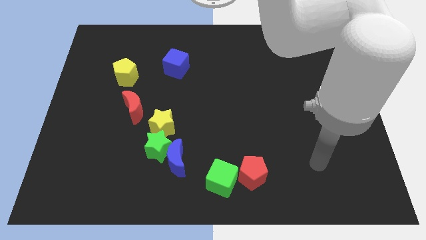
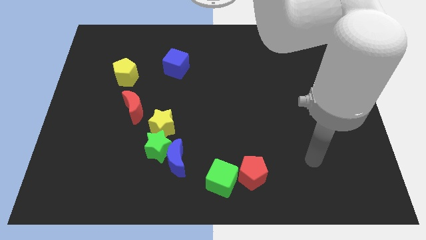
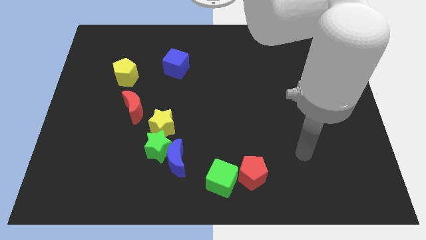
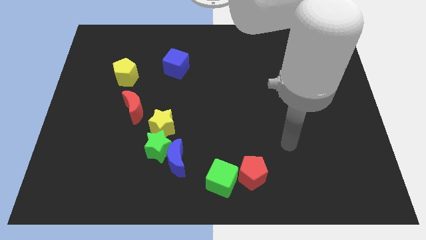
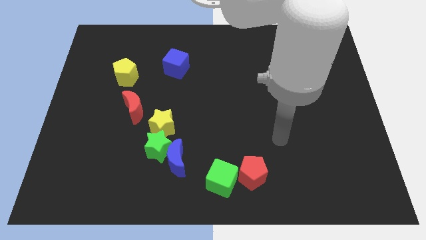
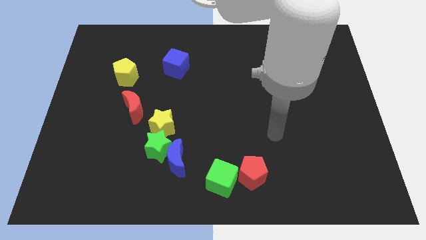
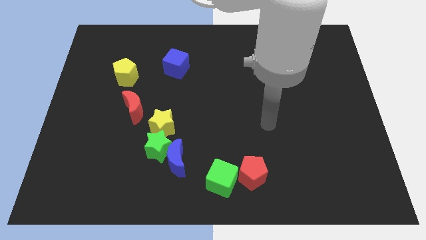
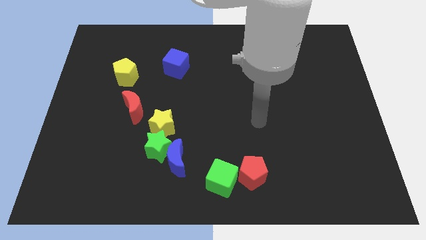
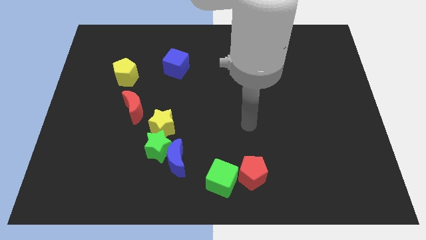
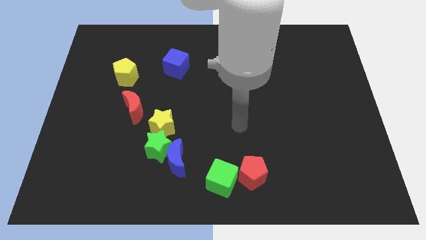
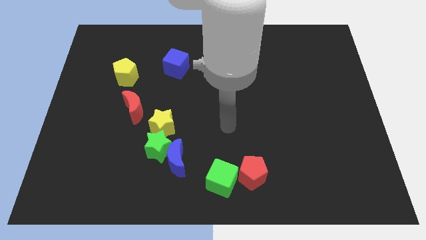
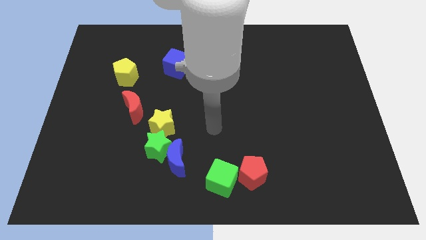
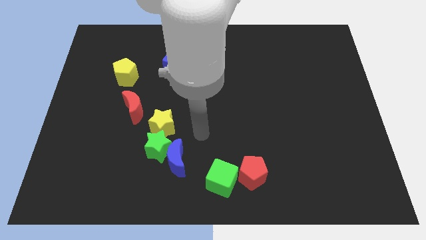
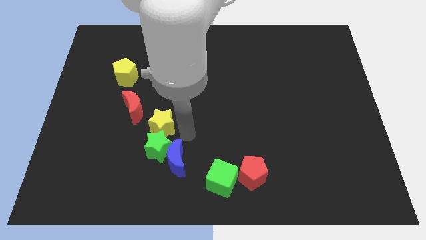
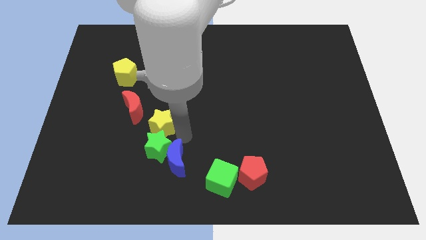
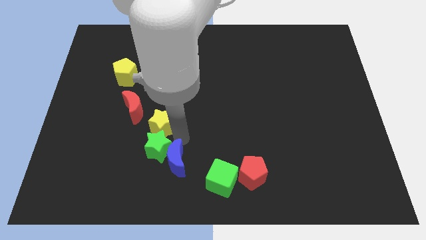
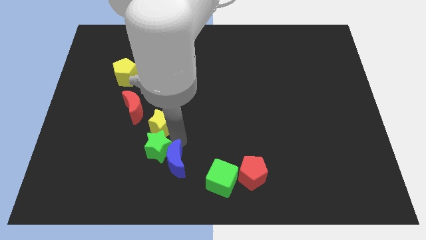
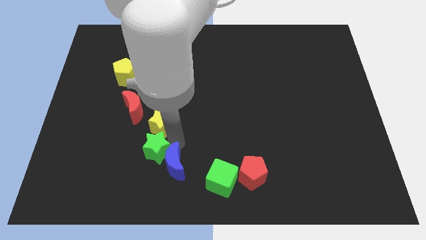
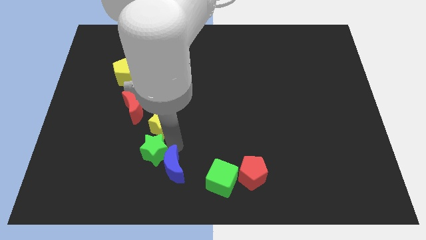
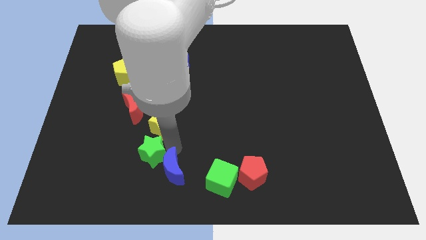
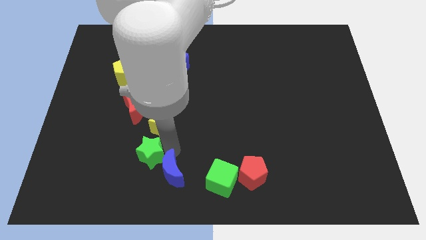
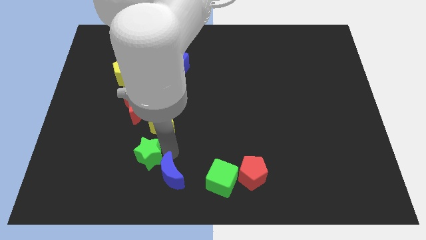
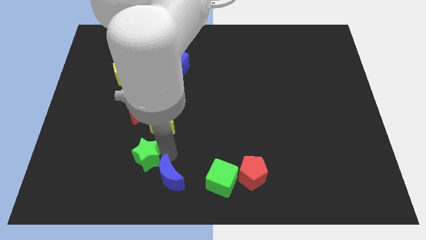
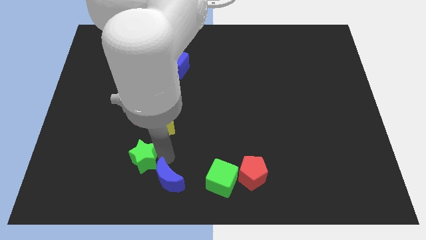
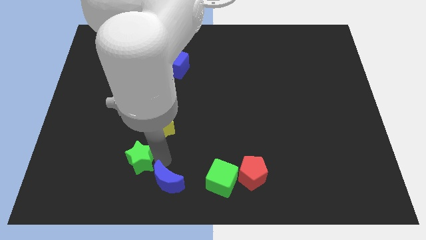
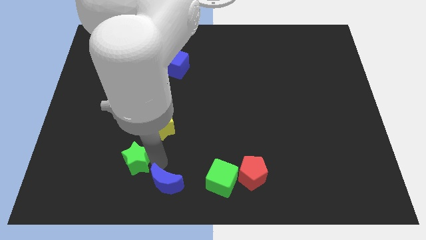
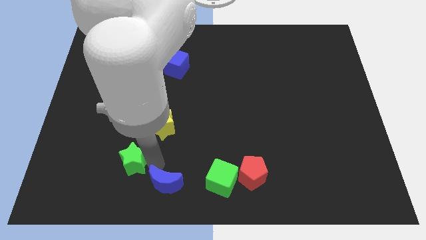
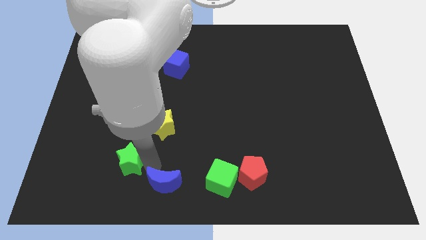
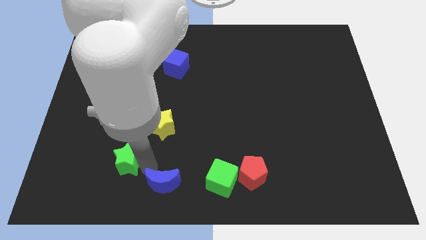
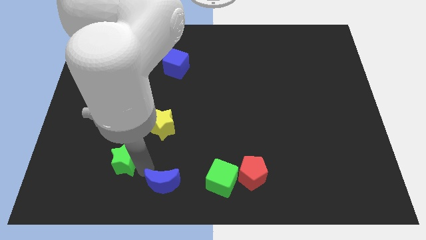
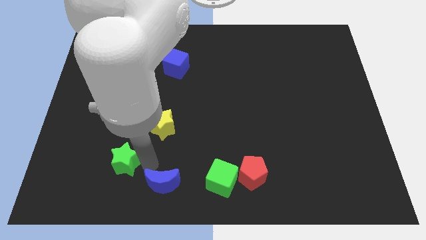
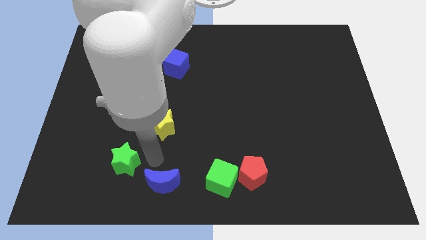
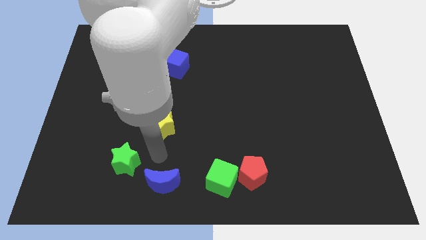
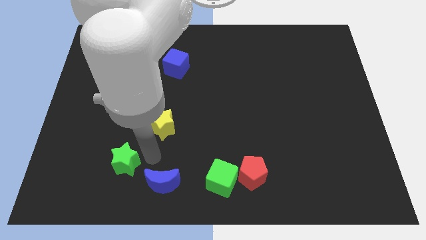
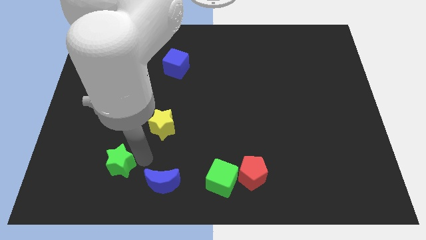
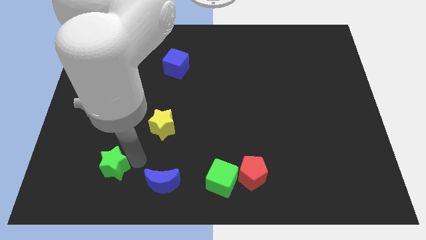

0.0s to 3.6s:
separate the green star from the blue moon and yellow star

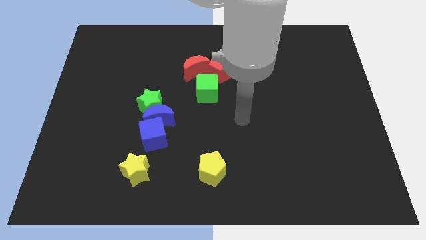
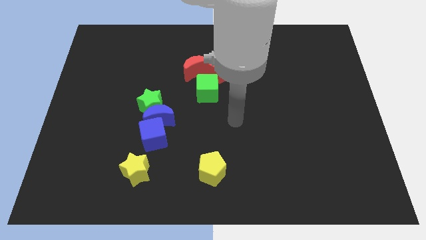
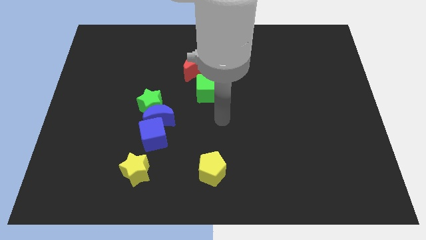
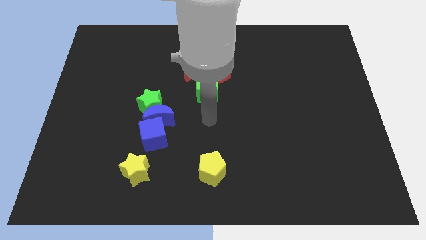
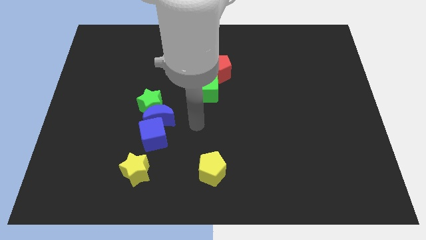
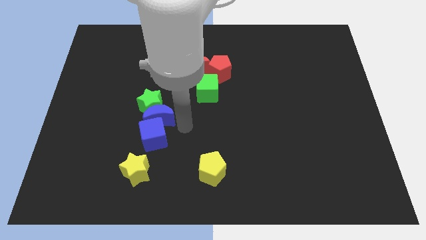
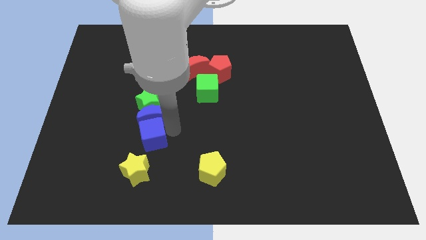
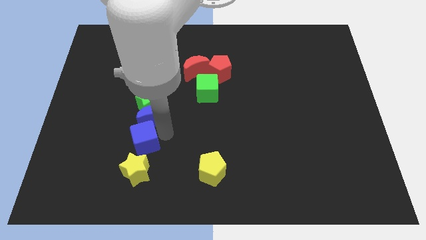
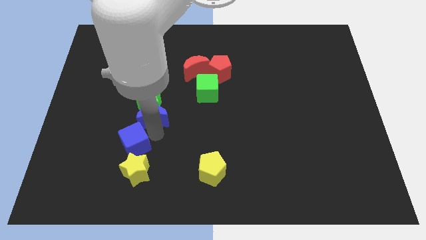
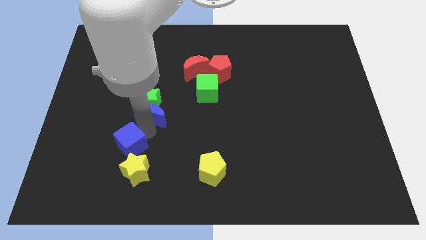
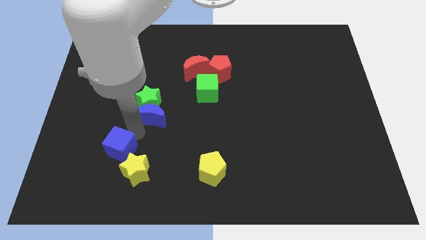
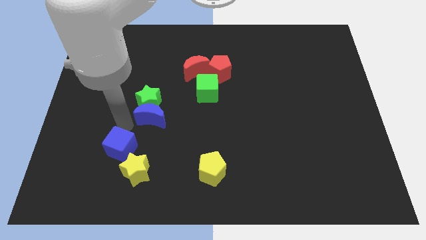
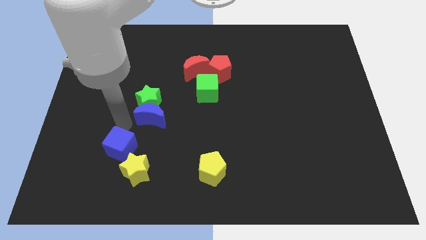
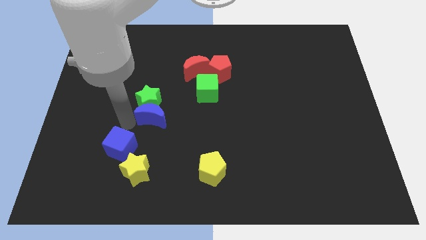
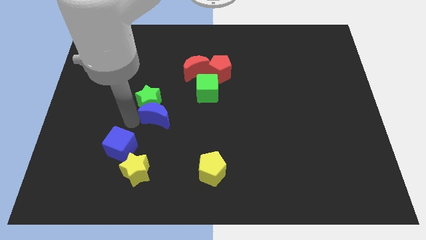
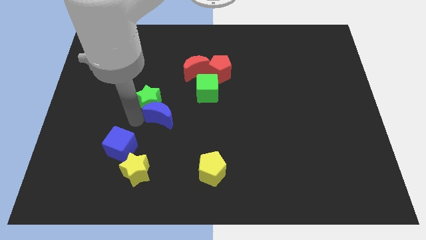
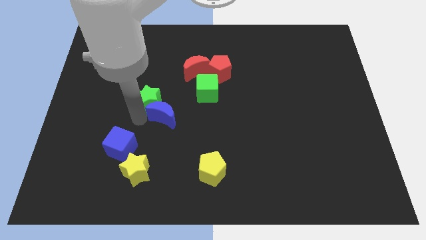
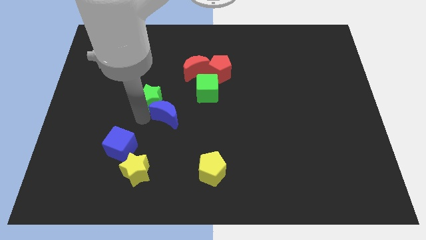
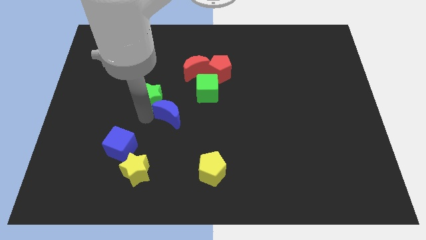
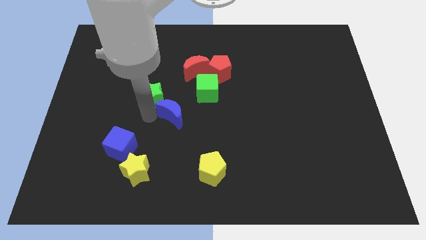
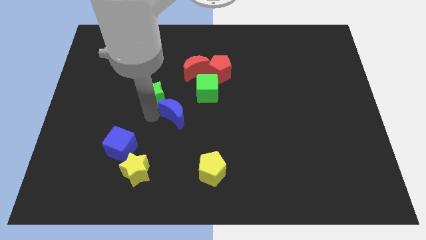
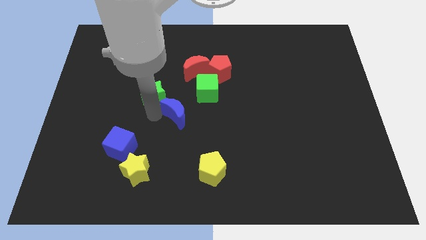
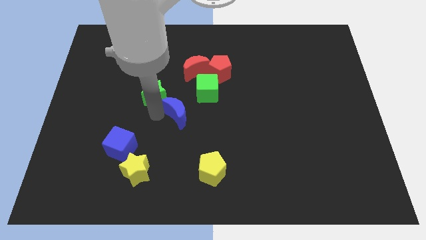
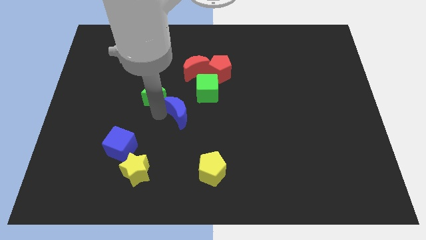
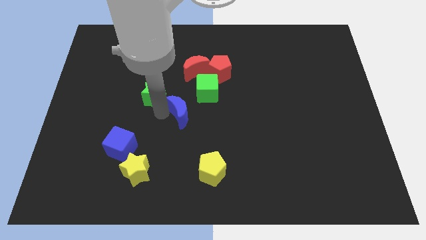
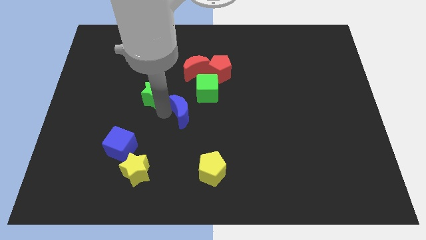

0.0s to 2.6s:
pull the blue moon apart from the green star and blue cube

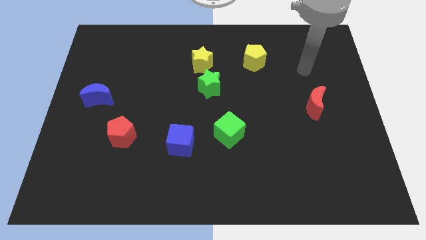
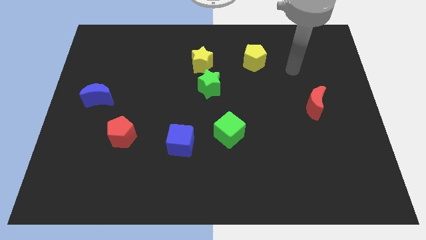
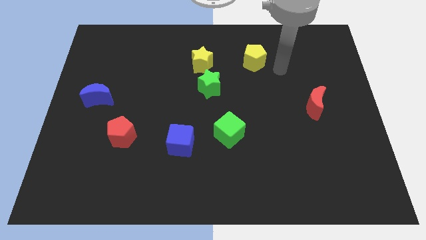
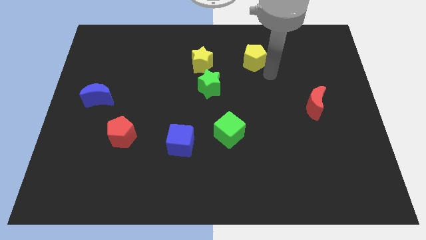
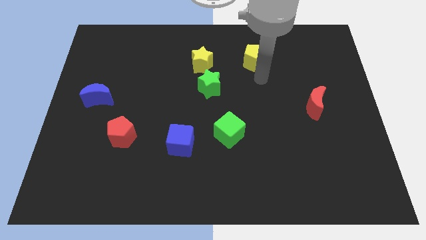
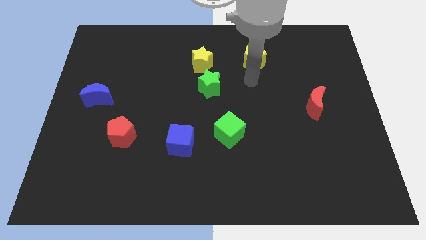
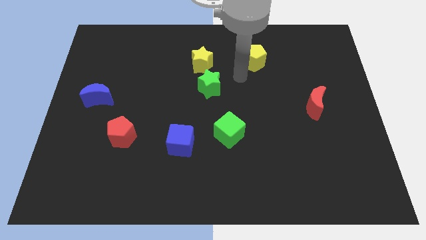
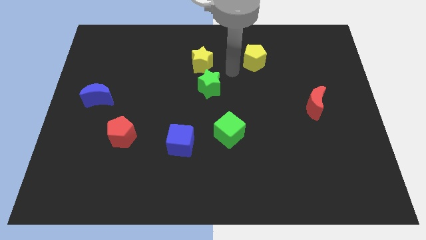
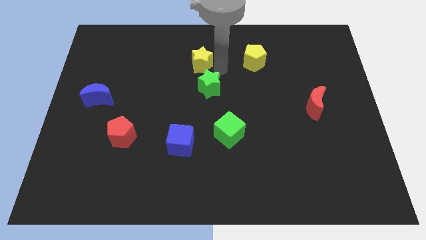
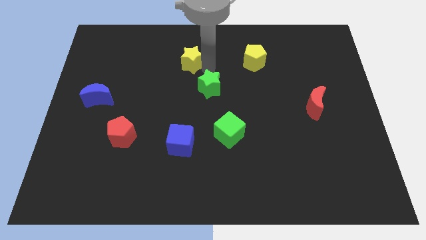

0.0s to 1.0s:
separate the green star from the yellow star

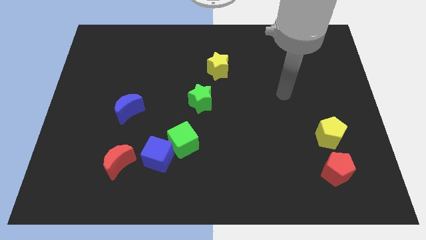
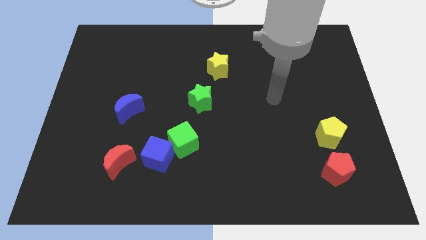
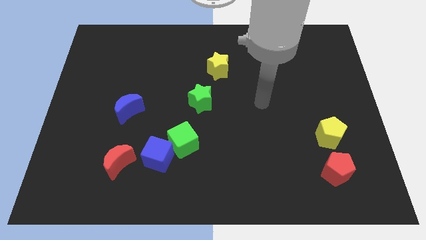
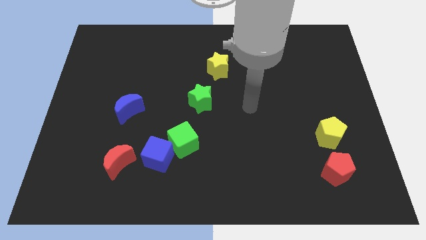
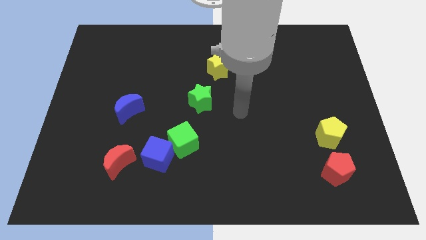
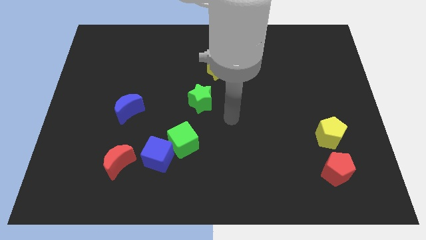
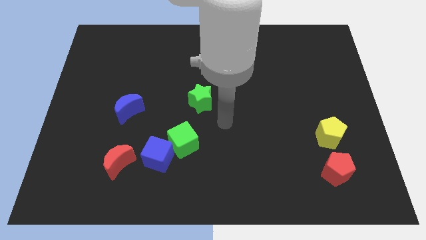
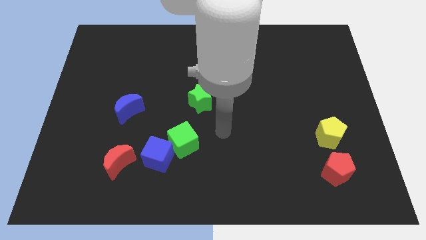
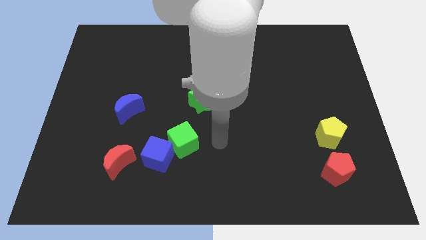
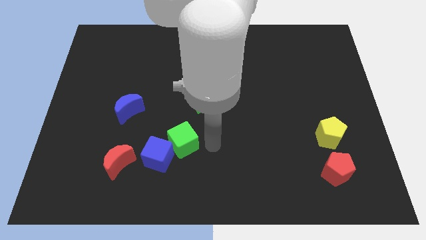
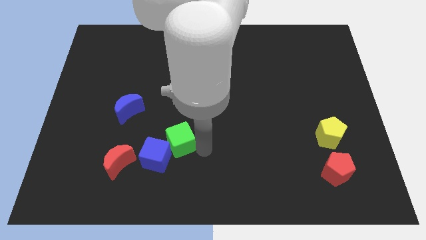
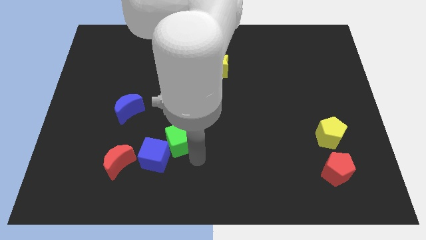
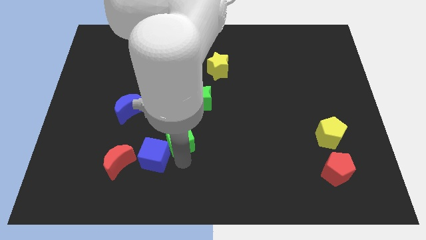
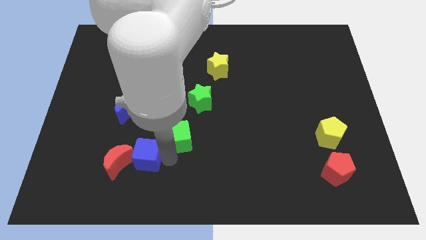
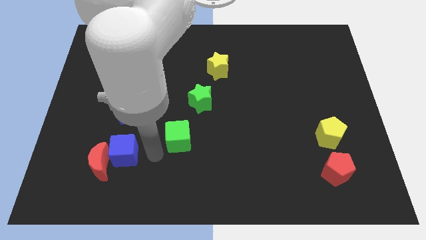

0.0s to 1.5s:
separate the green cube from the blue cube

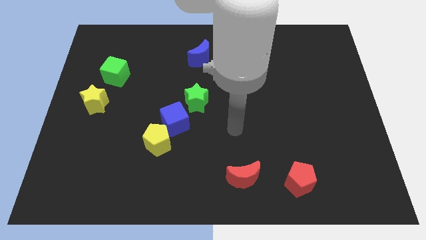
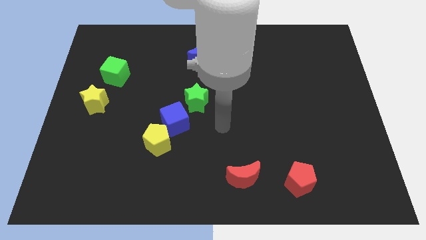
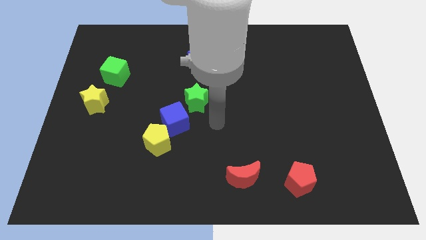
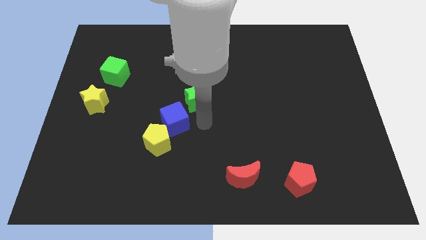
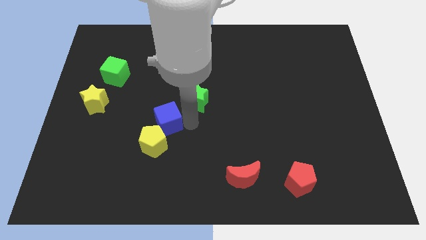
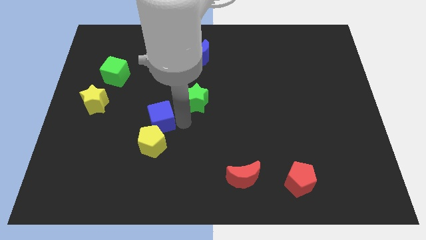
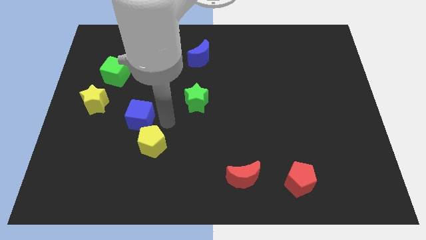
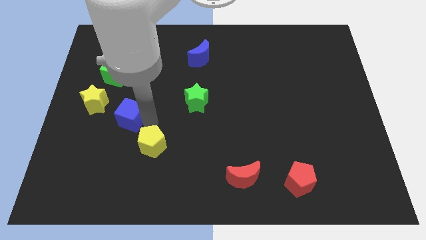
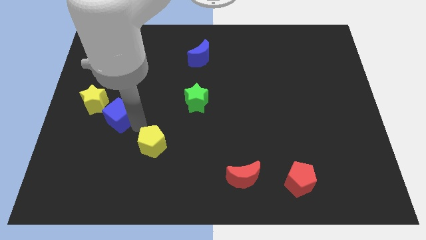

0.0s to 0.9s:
separate the yellow pentagon from the blue cube
